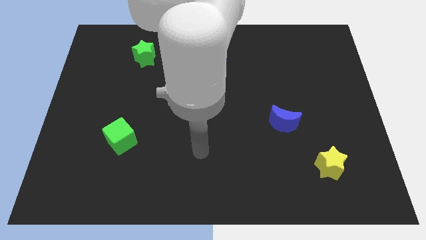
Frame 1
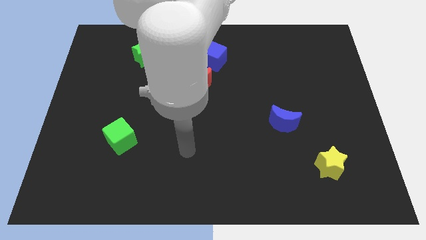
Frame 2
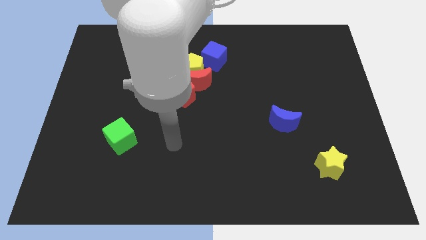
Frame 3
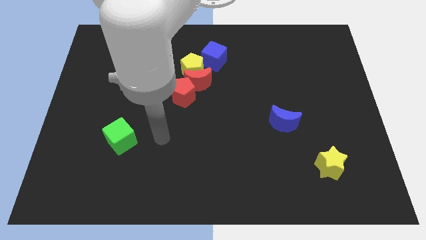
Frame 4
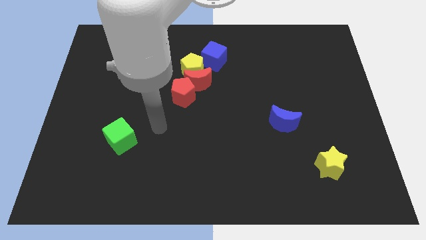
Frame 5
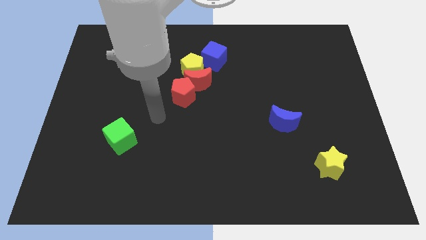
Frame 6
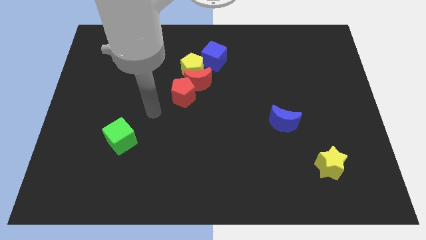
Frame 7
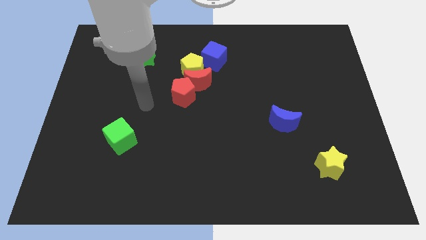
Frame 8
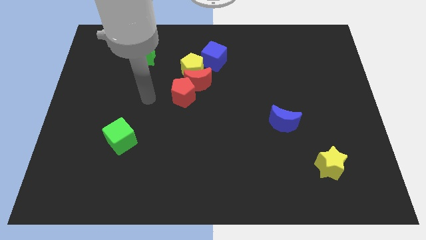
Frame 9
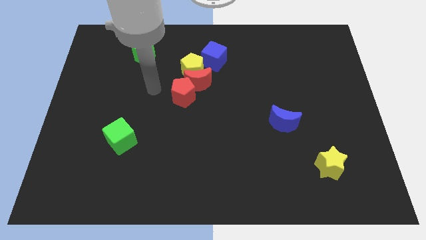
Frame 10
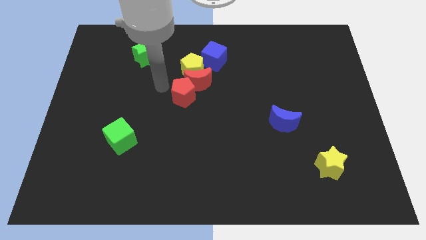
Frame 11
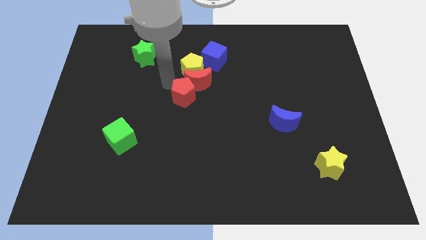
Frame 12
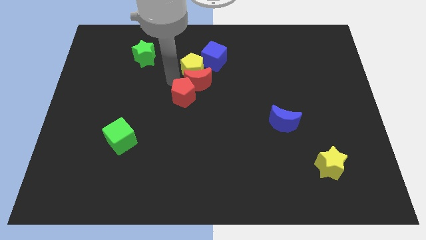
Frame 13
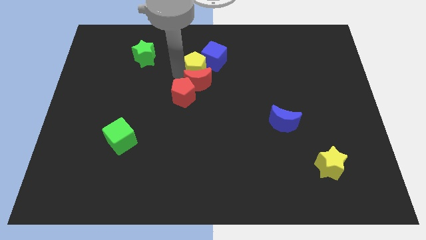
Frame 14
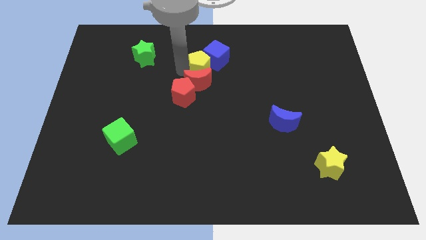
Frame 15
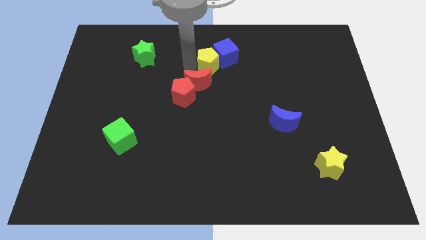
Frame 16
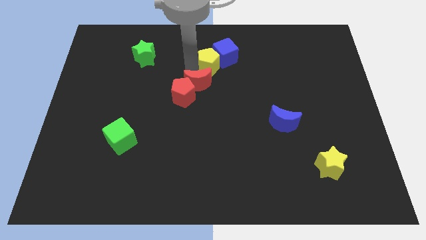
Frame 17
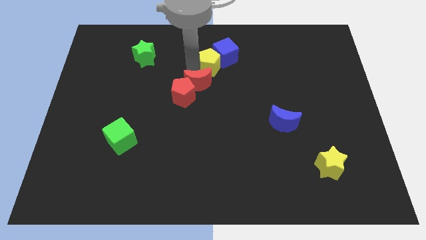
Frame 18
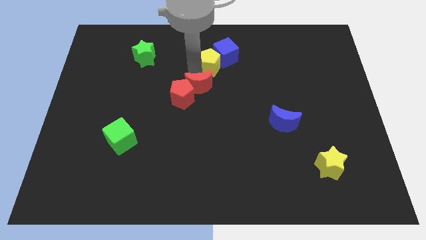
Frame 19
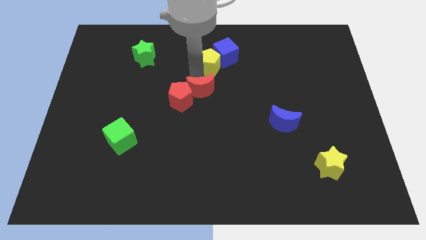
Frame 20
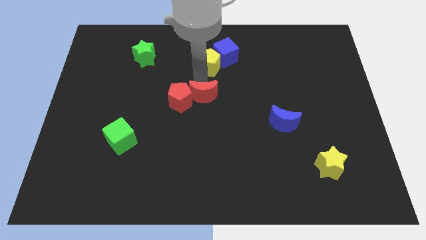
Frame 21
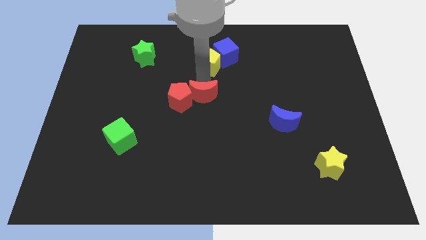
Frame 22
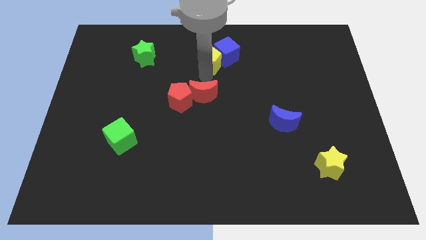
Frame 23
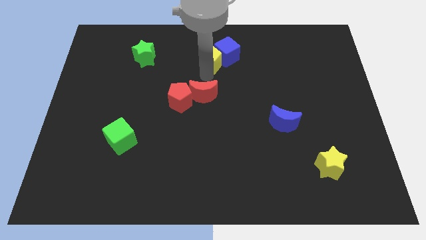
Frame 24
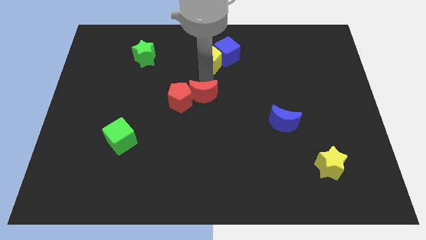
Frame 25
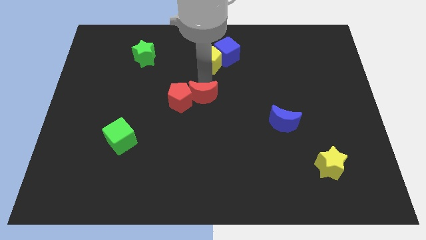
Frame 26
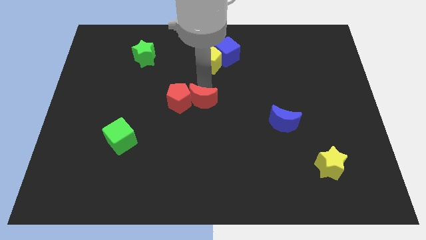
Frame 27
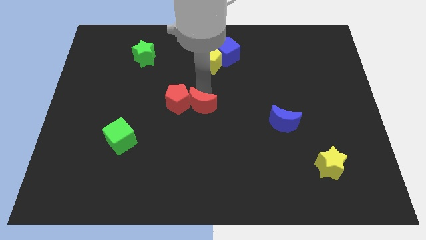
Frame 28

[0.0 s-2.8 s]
move the red moon away from the yellow pentagon, red pentagon, and blue cube

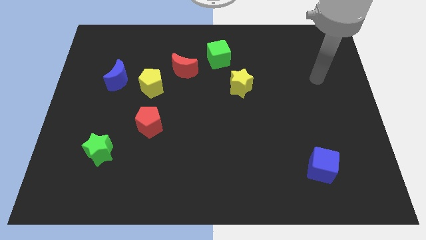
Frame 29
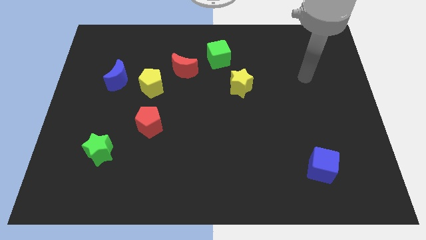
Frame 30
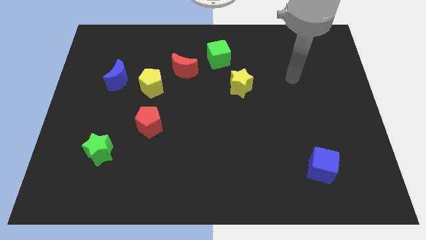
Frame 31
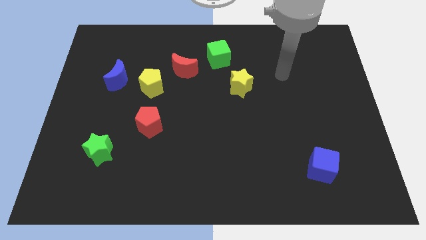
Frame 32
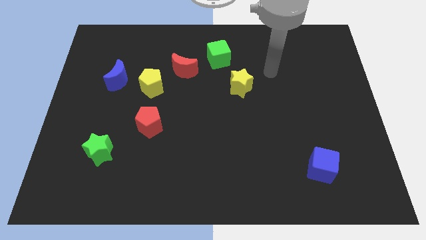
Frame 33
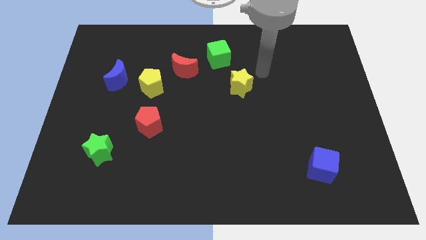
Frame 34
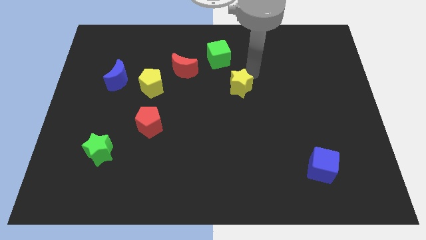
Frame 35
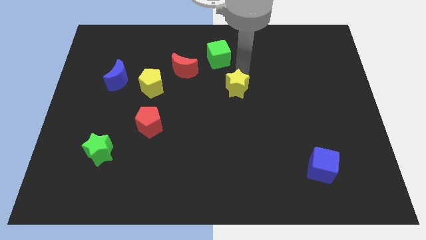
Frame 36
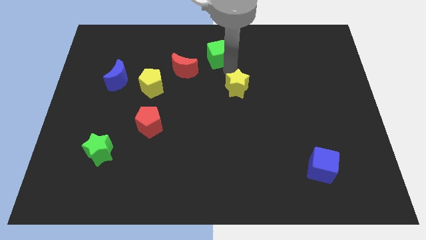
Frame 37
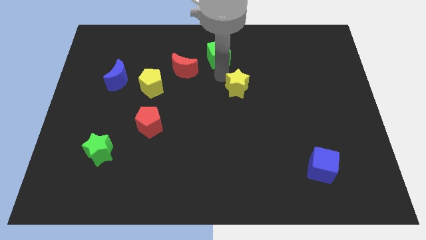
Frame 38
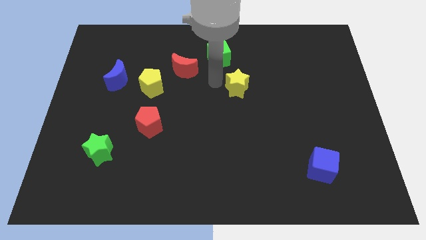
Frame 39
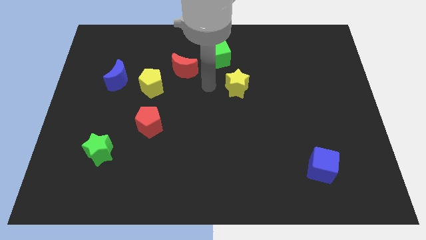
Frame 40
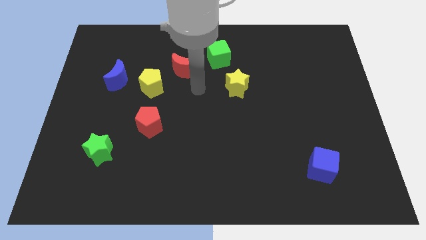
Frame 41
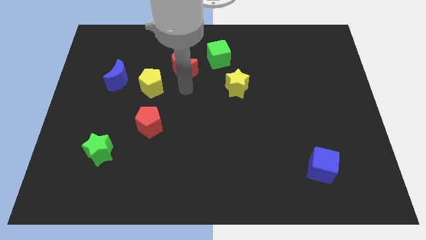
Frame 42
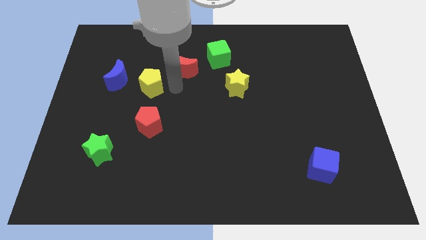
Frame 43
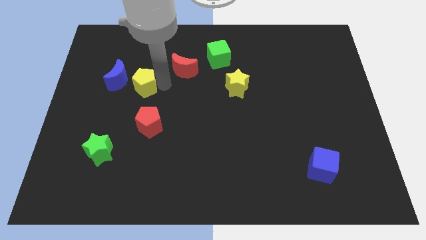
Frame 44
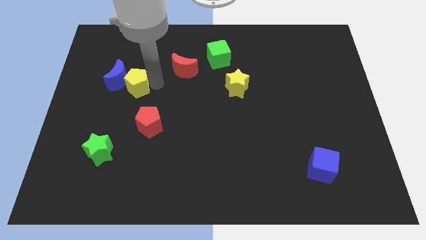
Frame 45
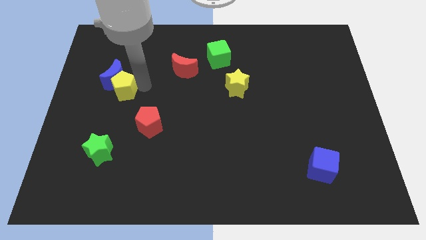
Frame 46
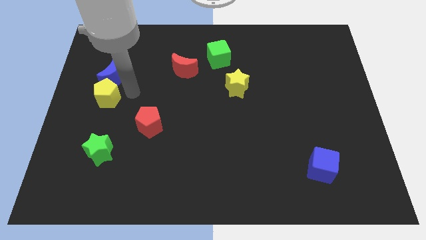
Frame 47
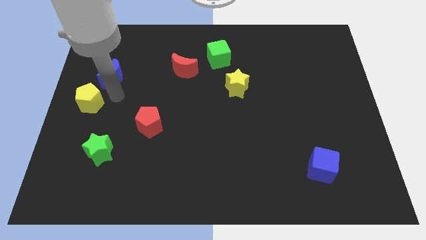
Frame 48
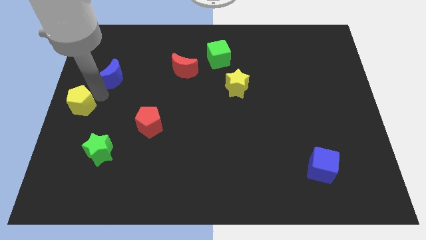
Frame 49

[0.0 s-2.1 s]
pull the blue moon apart from the yellow pentagon

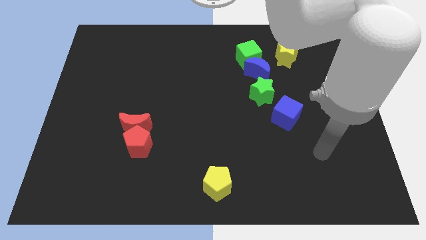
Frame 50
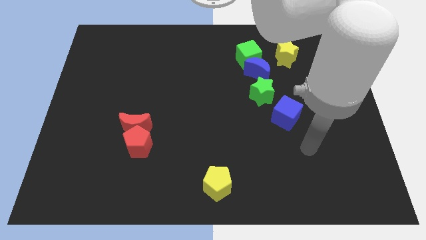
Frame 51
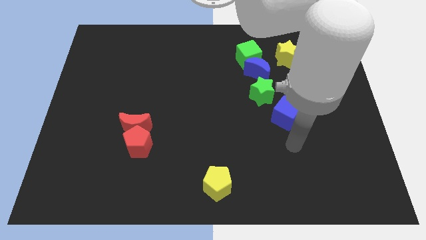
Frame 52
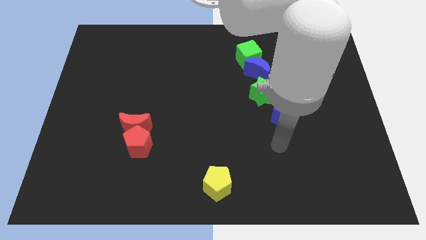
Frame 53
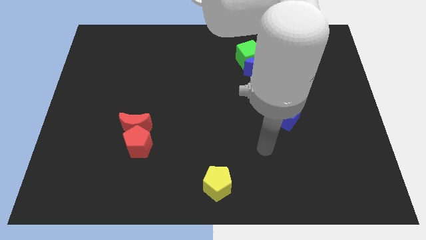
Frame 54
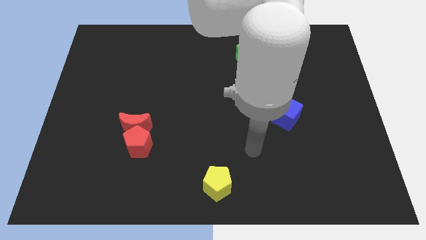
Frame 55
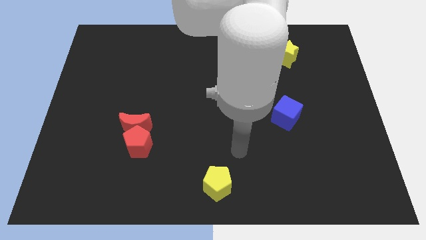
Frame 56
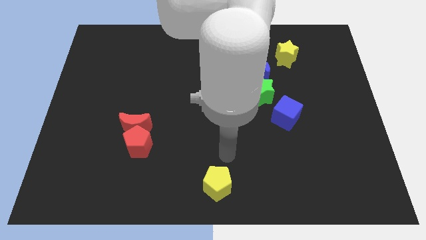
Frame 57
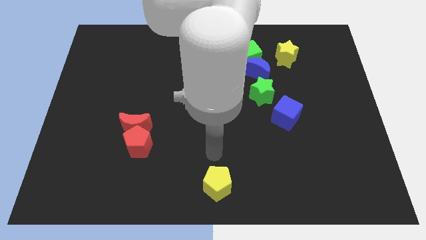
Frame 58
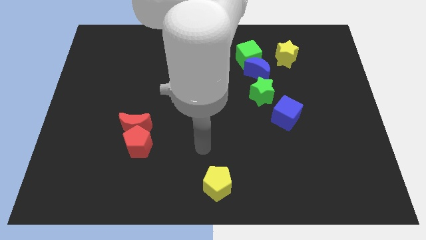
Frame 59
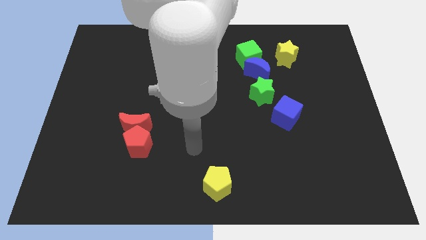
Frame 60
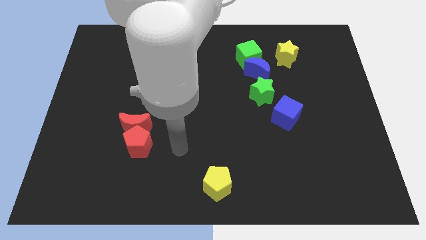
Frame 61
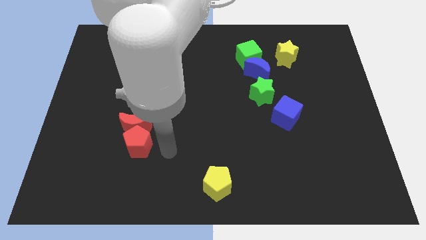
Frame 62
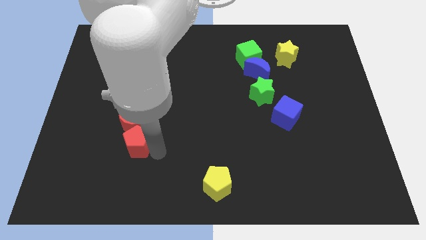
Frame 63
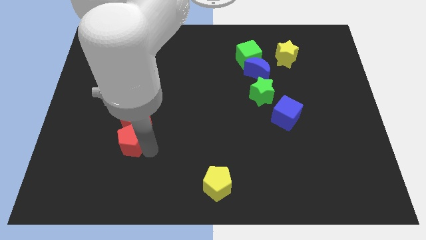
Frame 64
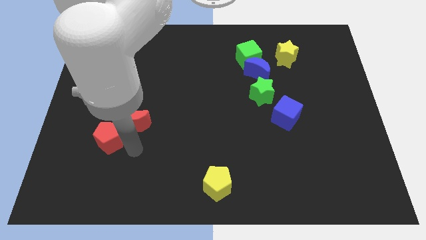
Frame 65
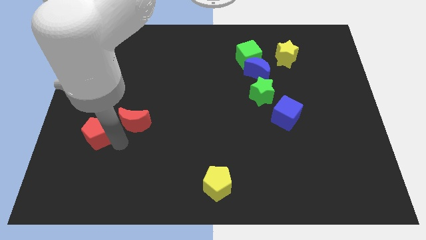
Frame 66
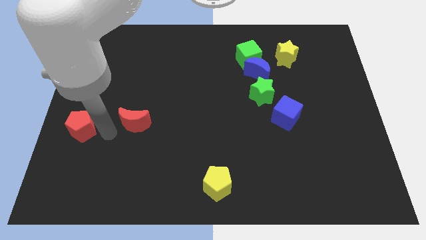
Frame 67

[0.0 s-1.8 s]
move the red moon away from the red pentagon

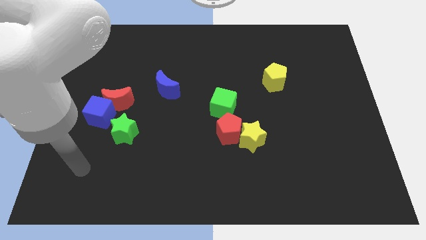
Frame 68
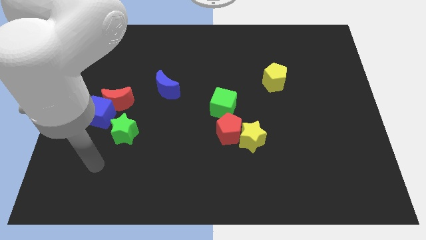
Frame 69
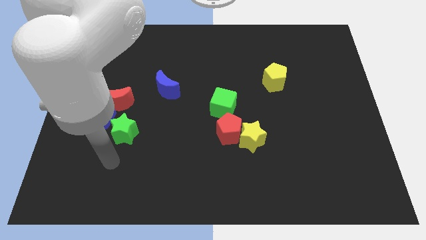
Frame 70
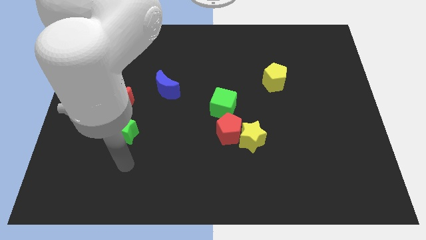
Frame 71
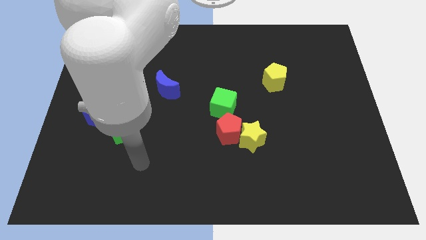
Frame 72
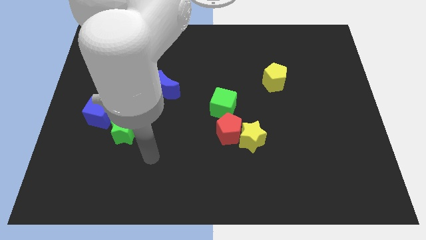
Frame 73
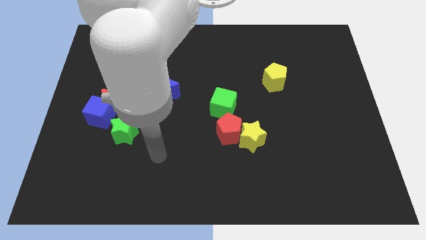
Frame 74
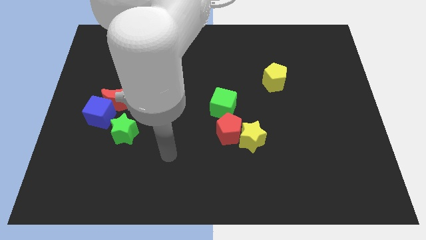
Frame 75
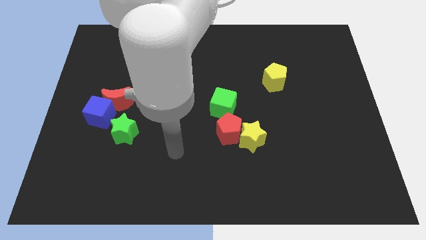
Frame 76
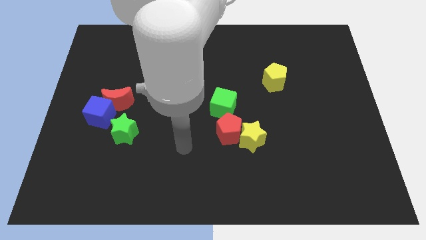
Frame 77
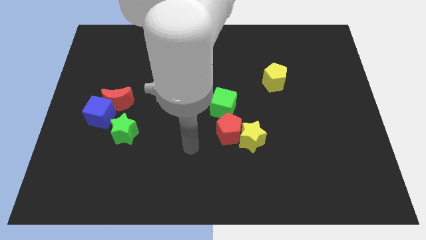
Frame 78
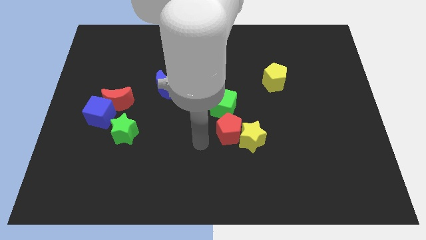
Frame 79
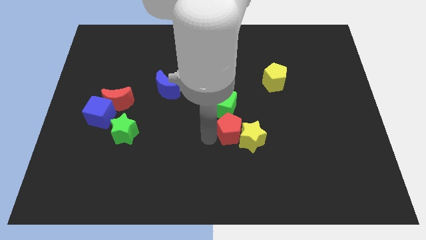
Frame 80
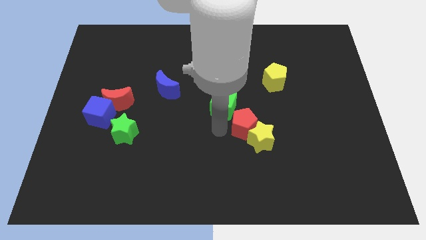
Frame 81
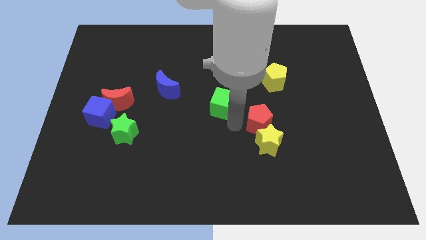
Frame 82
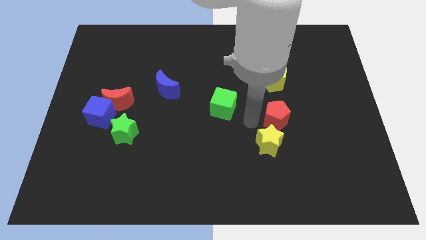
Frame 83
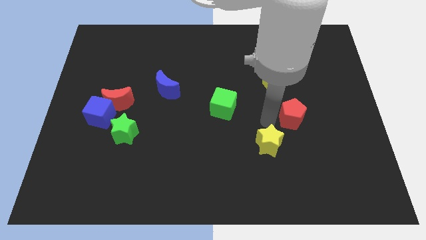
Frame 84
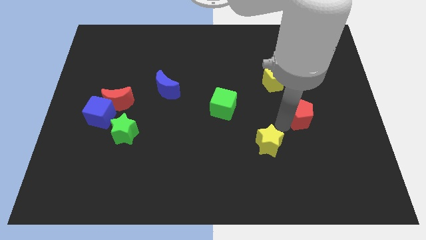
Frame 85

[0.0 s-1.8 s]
pull the yellow star apart from the red pentagon

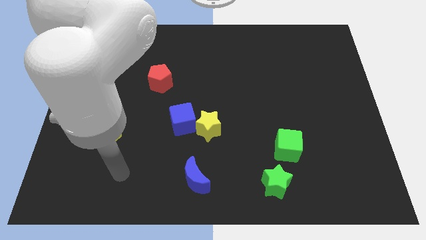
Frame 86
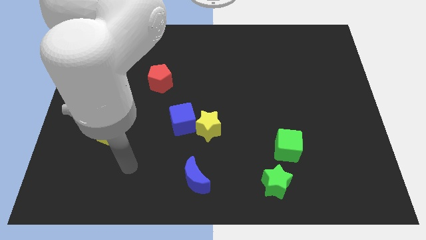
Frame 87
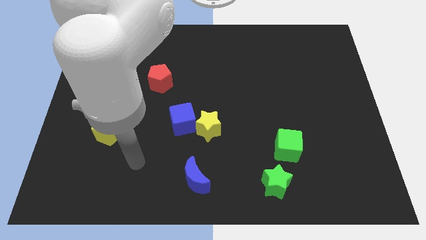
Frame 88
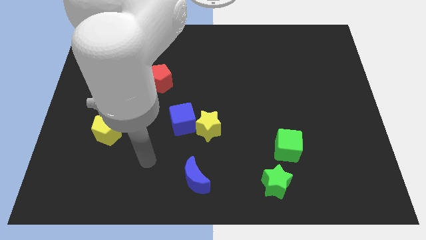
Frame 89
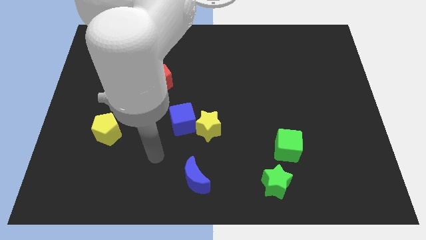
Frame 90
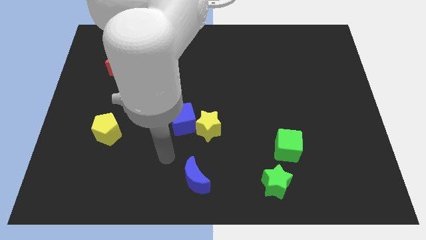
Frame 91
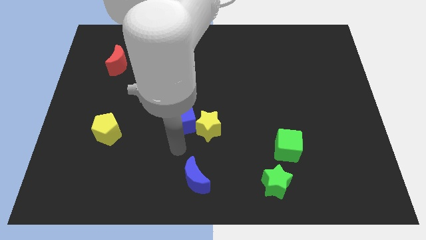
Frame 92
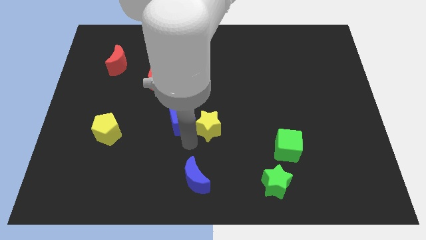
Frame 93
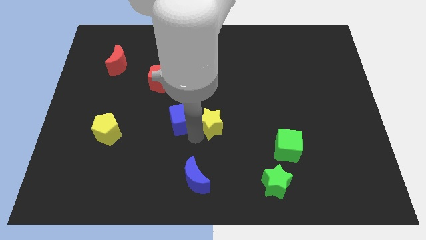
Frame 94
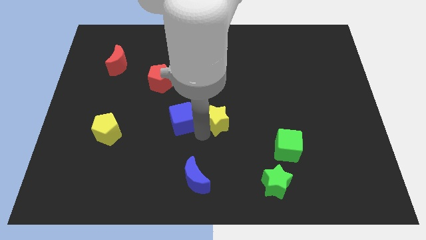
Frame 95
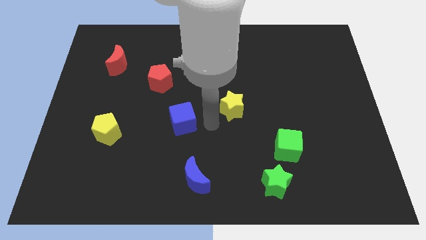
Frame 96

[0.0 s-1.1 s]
pull the blue cube apart from the yellow star
